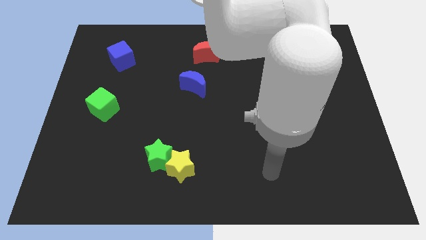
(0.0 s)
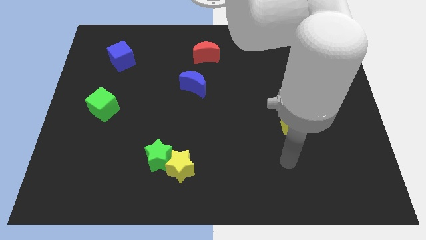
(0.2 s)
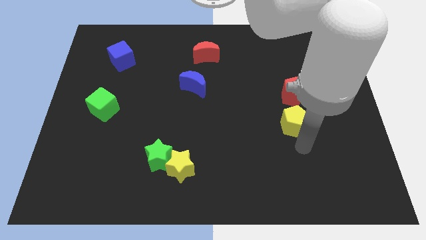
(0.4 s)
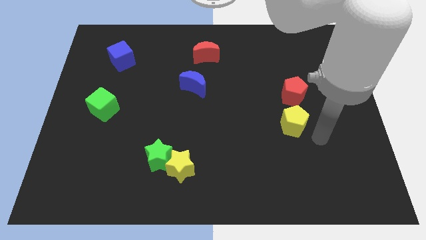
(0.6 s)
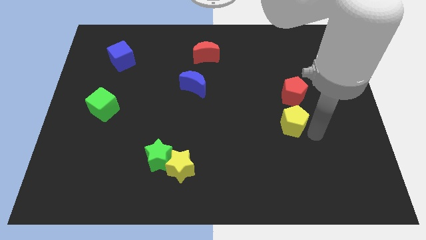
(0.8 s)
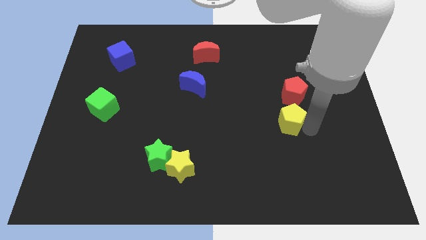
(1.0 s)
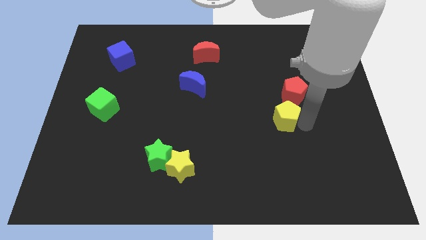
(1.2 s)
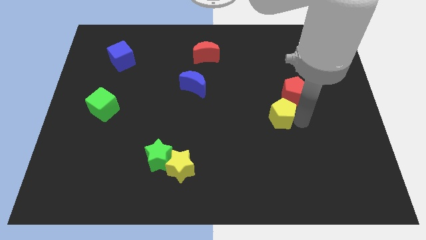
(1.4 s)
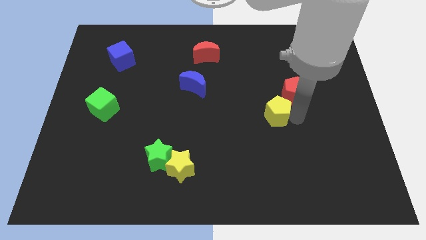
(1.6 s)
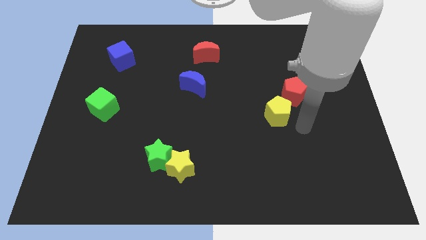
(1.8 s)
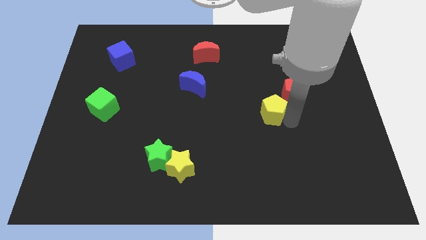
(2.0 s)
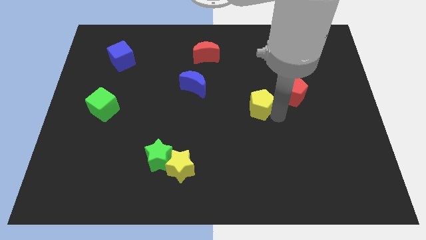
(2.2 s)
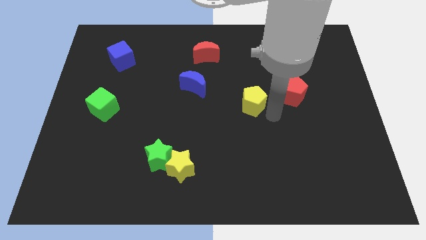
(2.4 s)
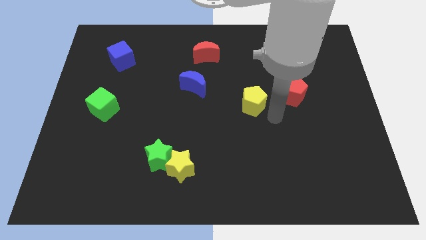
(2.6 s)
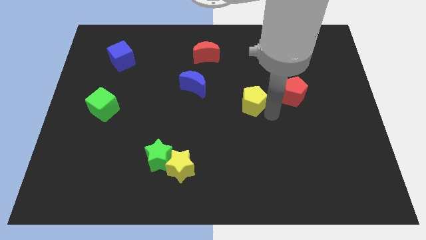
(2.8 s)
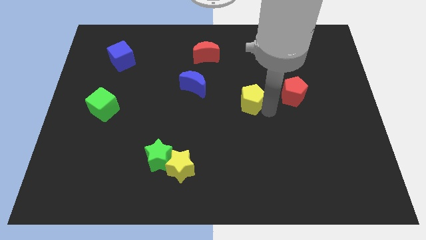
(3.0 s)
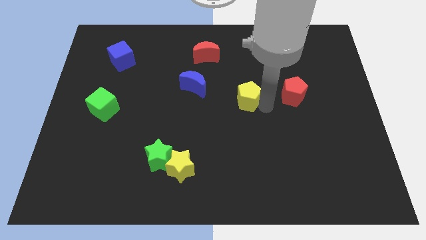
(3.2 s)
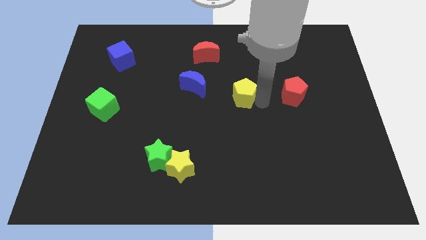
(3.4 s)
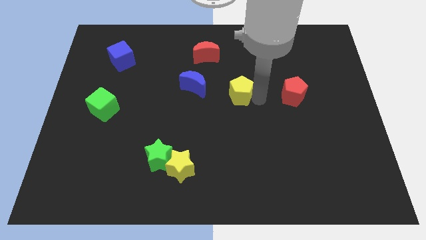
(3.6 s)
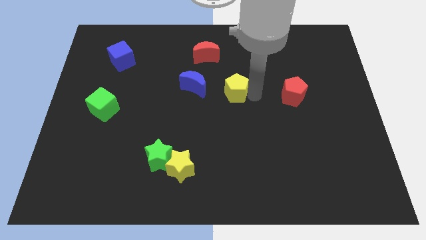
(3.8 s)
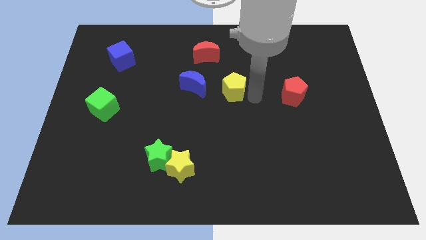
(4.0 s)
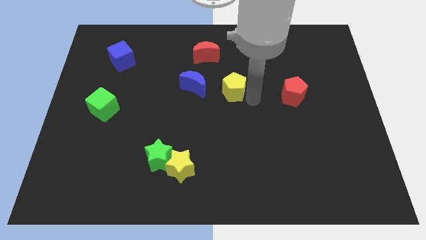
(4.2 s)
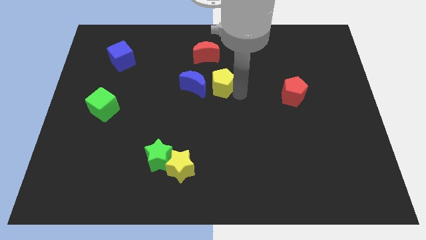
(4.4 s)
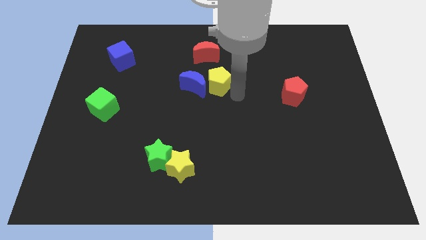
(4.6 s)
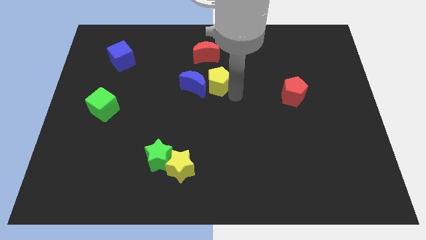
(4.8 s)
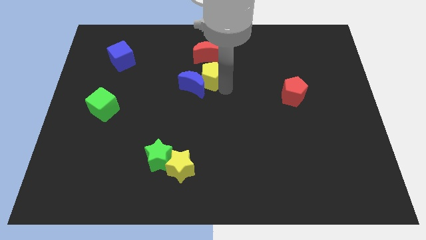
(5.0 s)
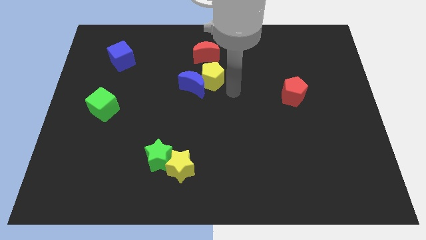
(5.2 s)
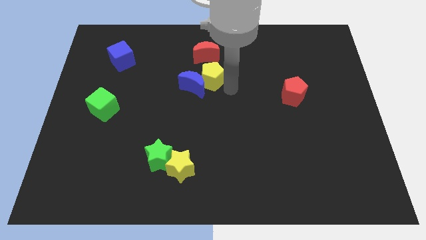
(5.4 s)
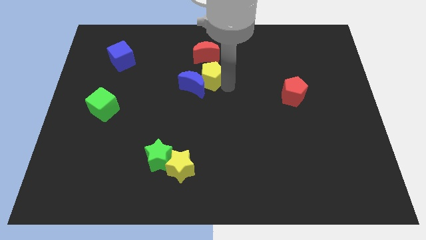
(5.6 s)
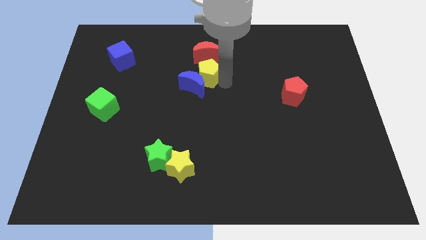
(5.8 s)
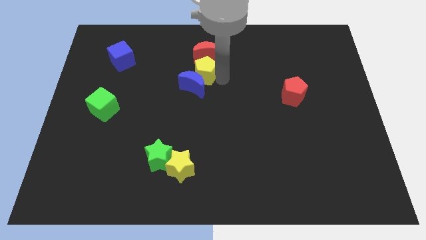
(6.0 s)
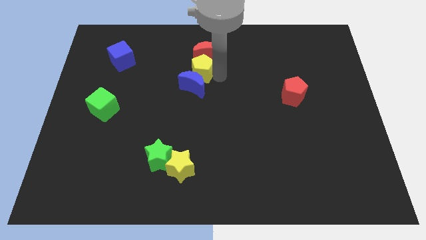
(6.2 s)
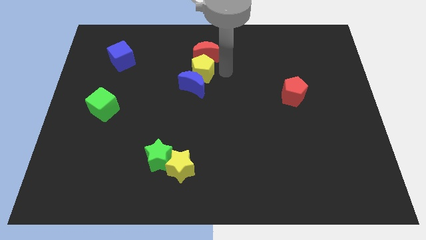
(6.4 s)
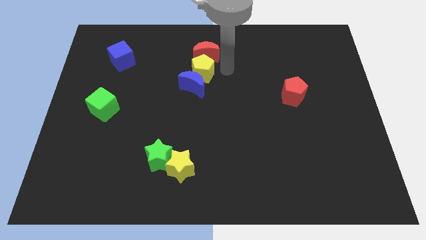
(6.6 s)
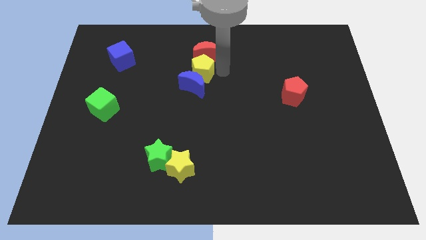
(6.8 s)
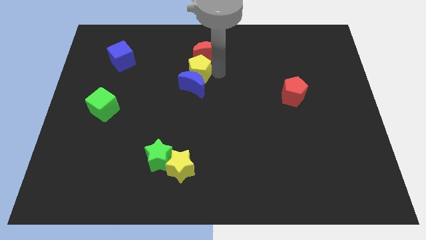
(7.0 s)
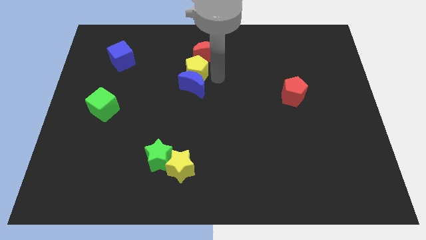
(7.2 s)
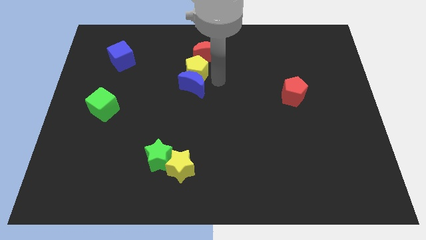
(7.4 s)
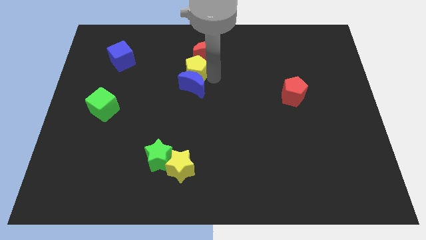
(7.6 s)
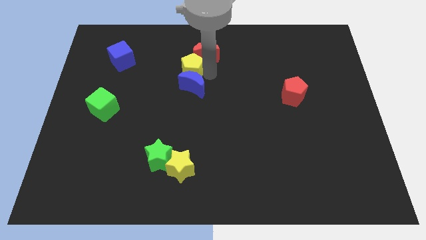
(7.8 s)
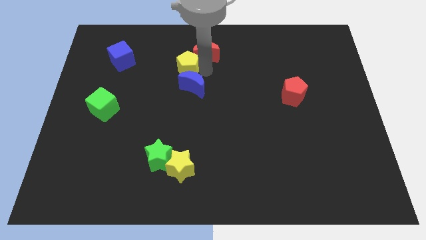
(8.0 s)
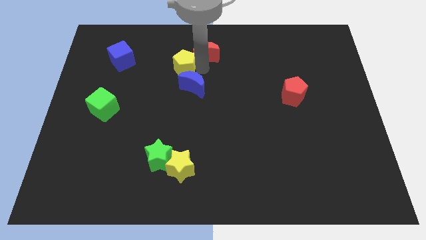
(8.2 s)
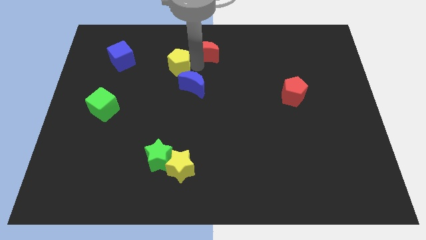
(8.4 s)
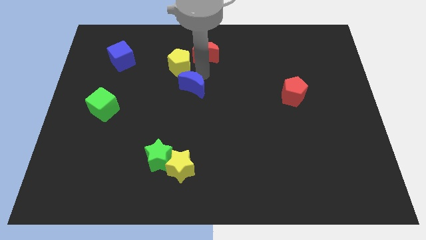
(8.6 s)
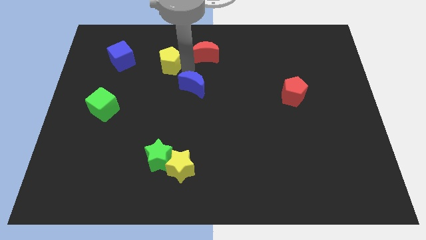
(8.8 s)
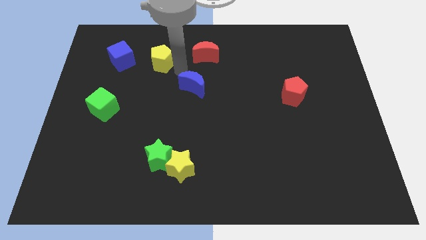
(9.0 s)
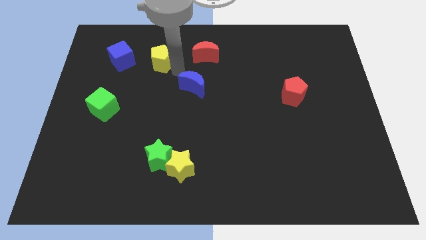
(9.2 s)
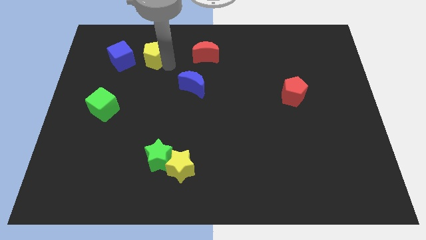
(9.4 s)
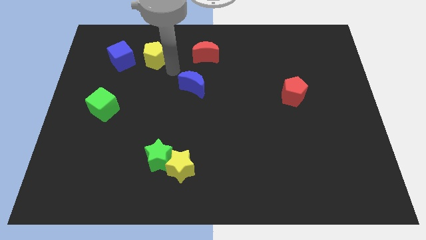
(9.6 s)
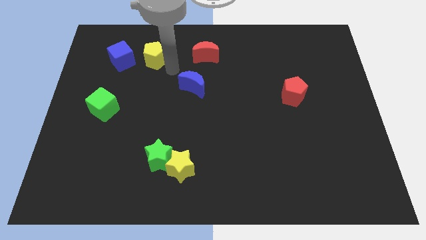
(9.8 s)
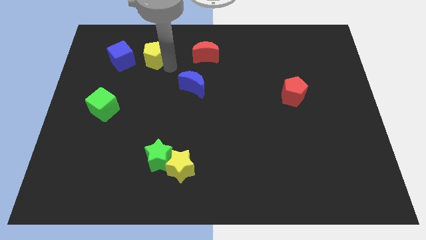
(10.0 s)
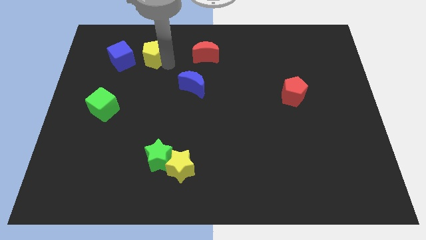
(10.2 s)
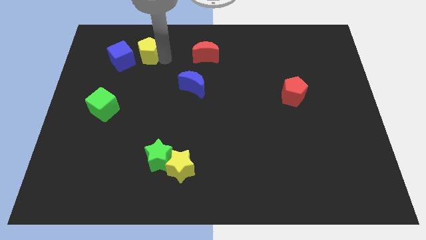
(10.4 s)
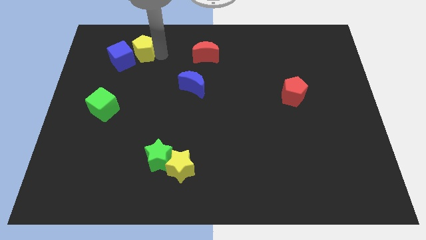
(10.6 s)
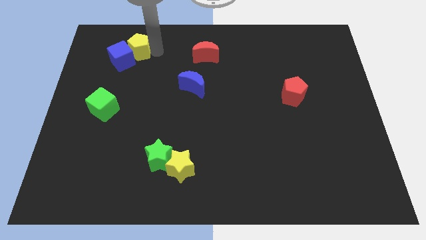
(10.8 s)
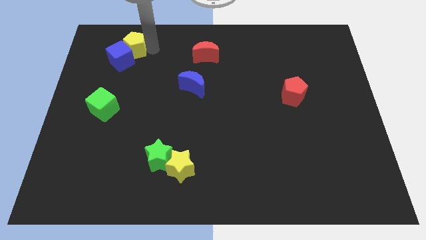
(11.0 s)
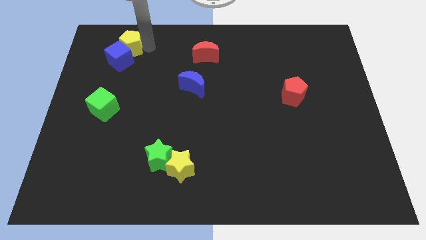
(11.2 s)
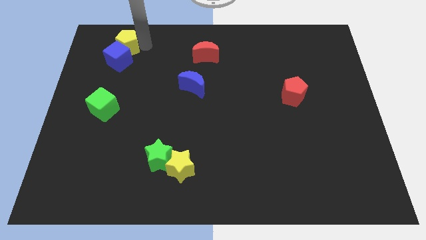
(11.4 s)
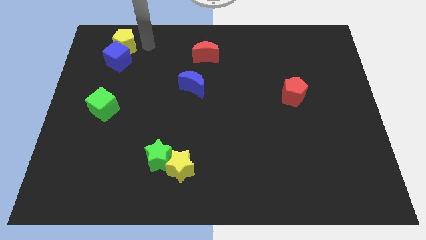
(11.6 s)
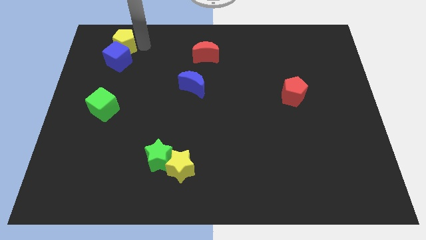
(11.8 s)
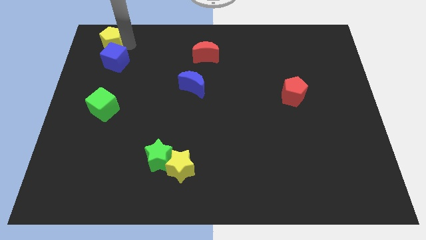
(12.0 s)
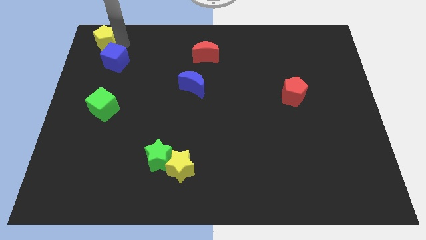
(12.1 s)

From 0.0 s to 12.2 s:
put the yellow pentagon to the top left corner

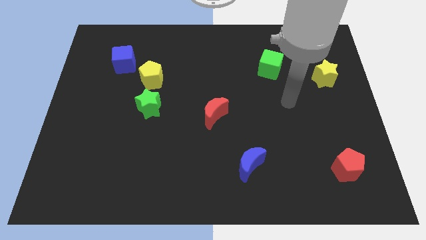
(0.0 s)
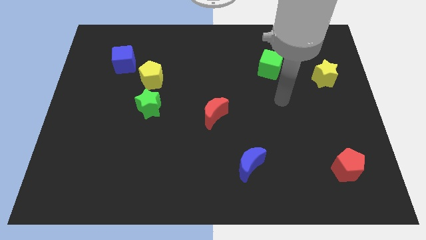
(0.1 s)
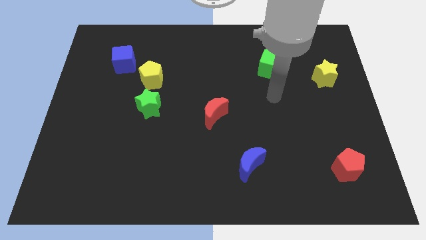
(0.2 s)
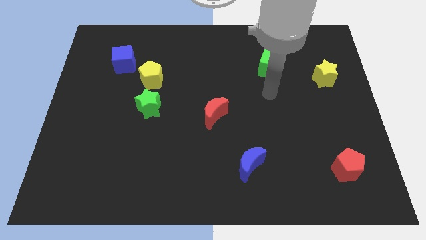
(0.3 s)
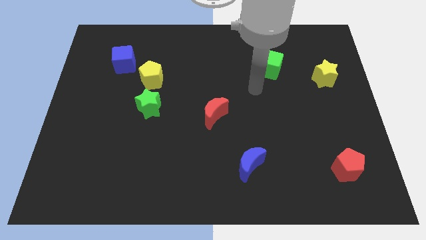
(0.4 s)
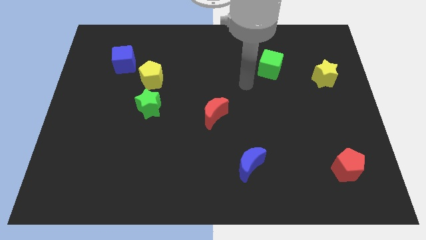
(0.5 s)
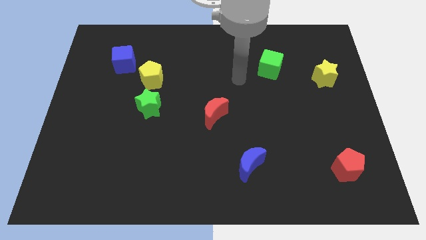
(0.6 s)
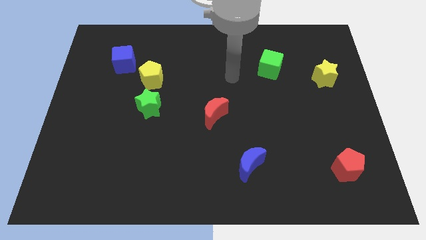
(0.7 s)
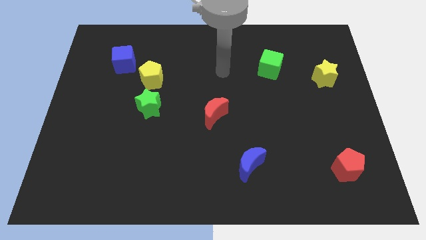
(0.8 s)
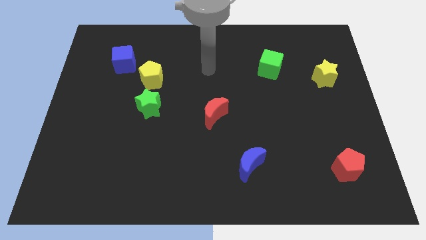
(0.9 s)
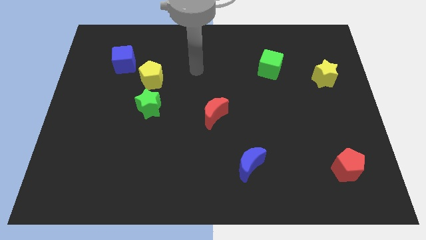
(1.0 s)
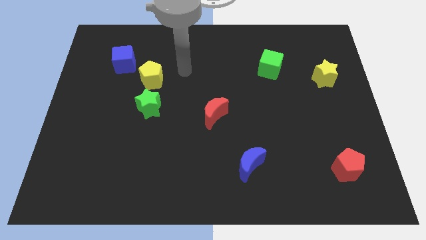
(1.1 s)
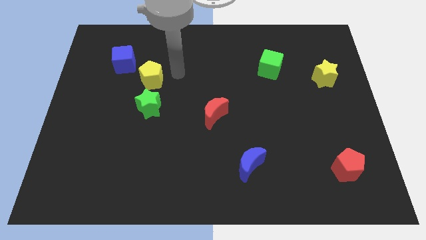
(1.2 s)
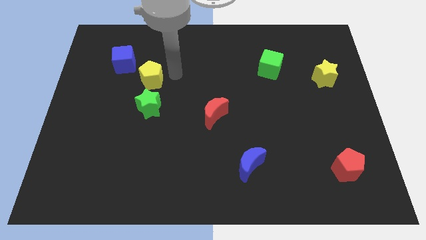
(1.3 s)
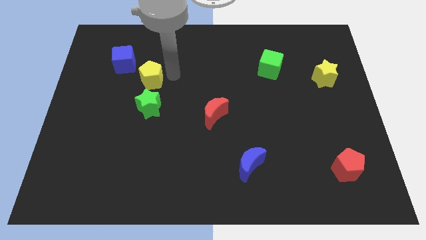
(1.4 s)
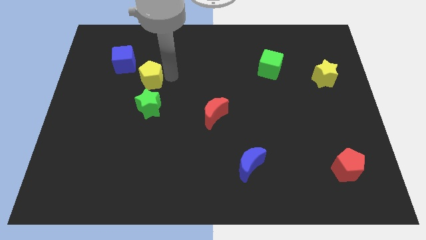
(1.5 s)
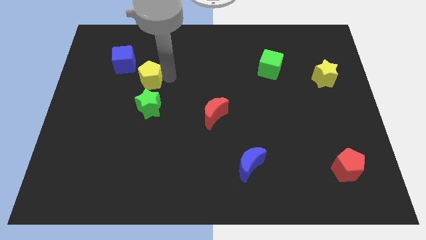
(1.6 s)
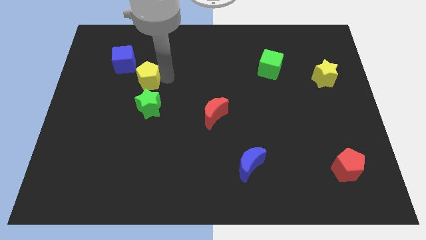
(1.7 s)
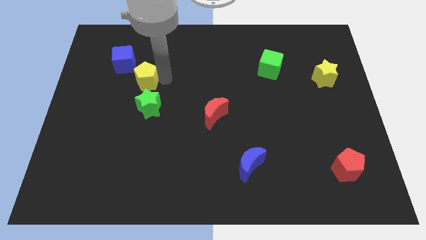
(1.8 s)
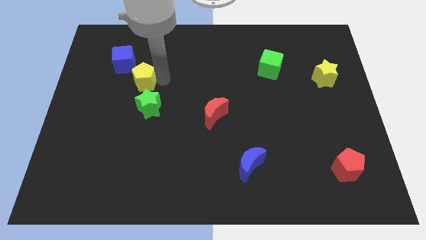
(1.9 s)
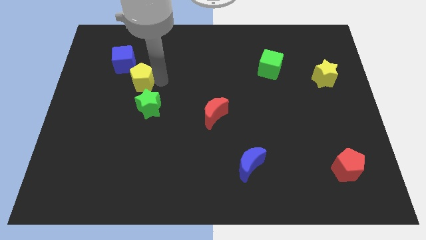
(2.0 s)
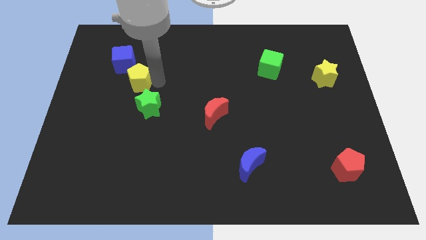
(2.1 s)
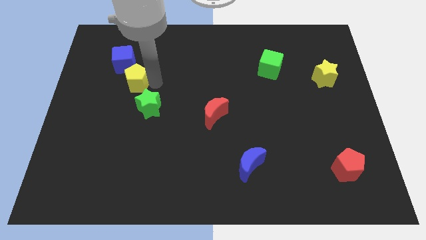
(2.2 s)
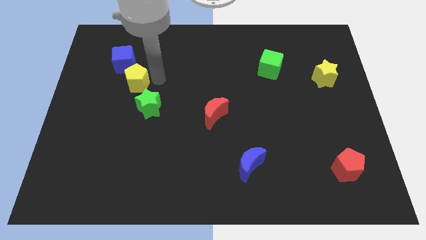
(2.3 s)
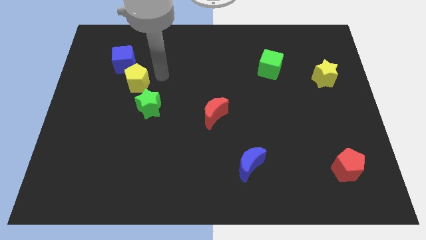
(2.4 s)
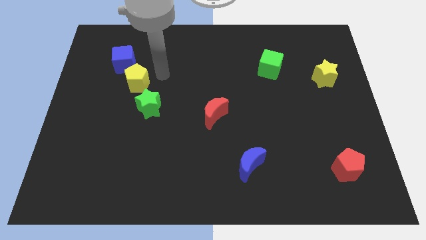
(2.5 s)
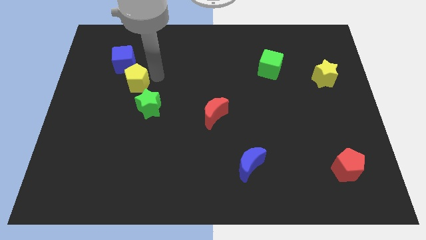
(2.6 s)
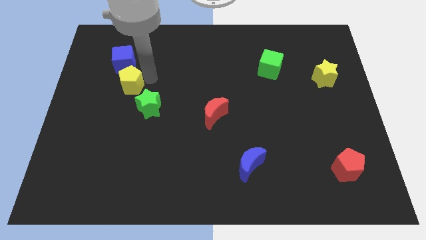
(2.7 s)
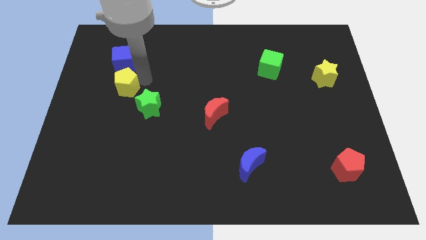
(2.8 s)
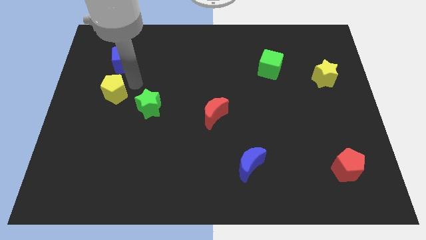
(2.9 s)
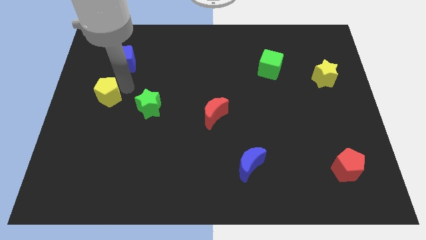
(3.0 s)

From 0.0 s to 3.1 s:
push the yellow pentagon to the left side of the board
